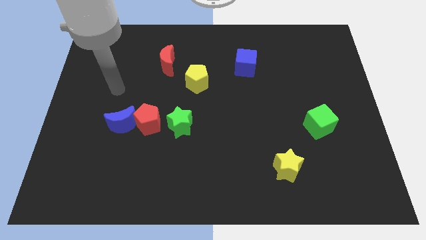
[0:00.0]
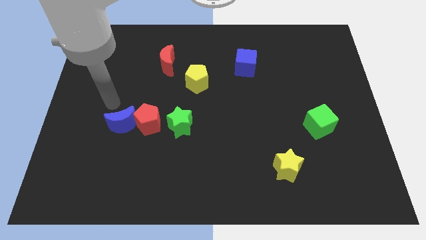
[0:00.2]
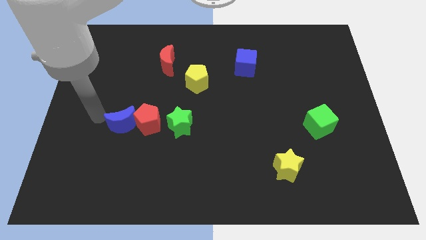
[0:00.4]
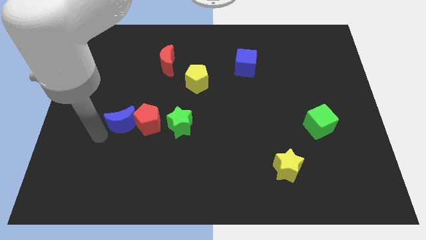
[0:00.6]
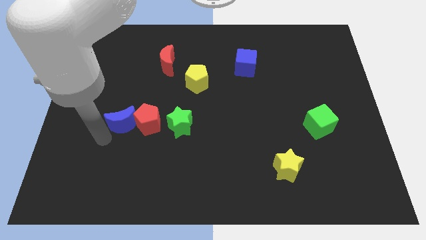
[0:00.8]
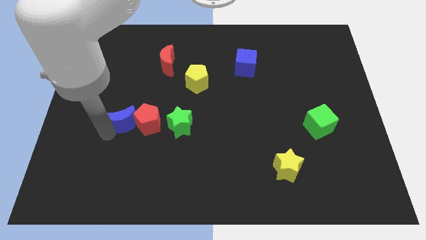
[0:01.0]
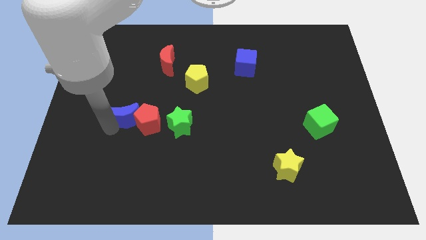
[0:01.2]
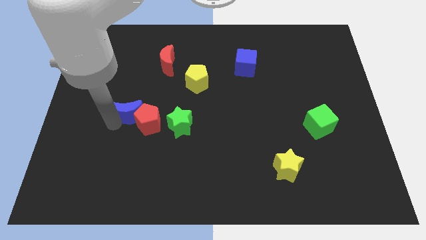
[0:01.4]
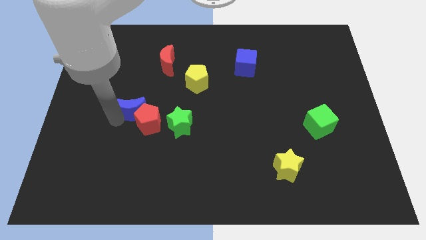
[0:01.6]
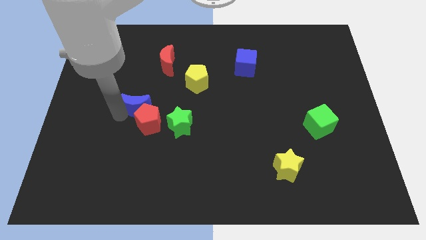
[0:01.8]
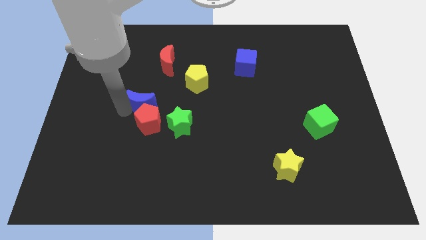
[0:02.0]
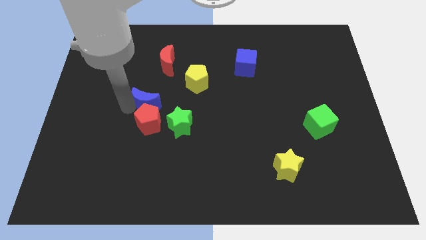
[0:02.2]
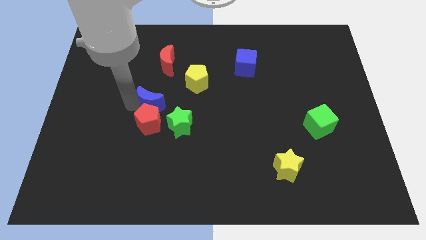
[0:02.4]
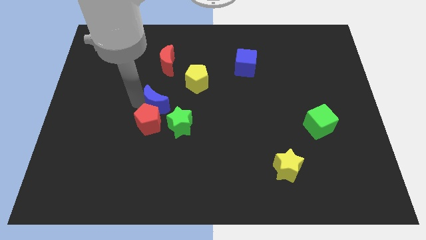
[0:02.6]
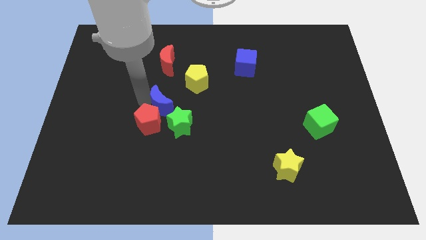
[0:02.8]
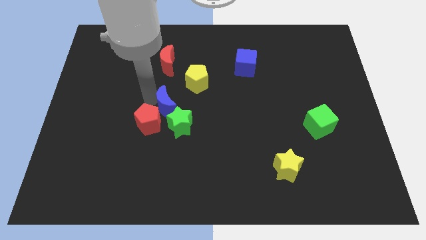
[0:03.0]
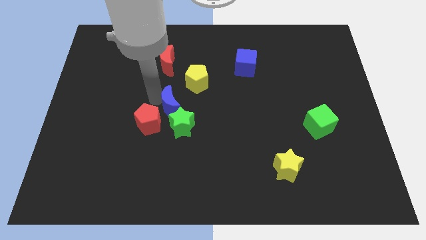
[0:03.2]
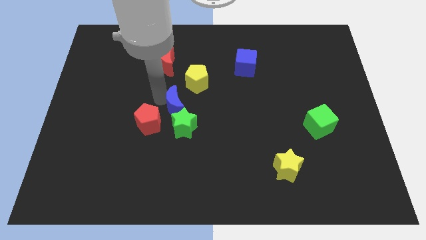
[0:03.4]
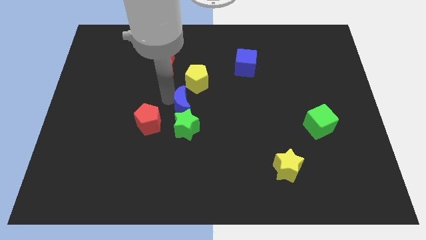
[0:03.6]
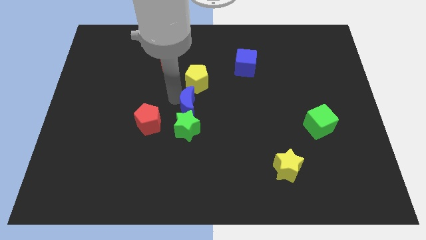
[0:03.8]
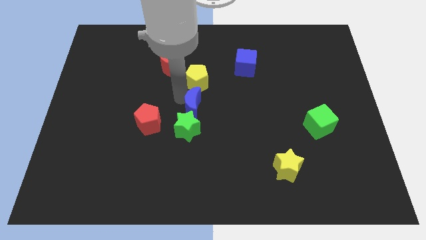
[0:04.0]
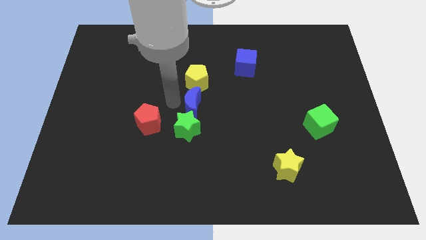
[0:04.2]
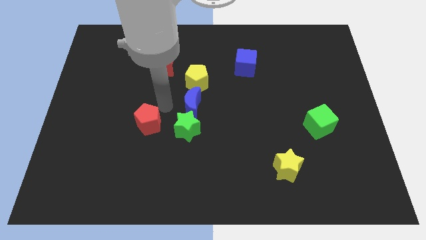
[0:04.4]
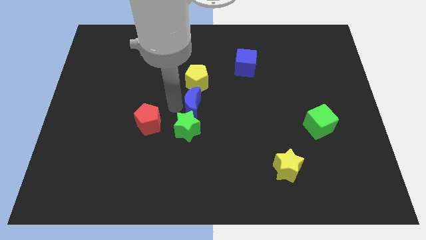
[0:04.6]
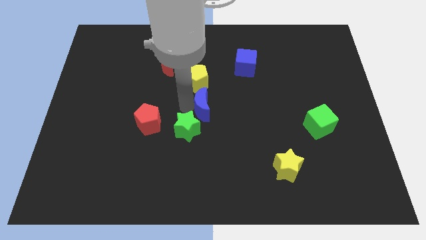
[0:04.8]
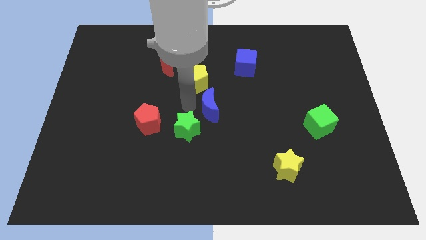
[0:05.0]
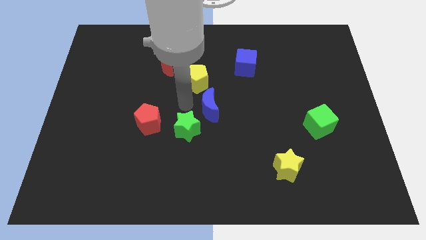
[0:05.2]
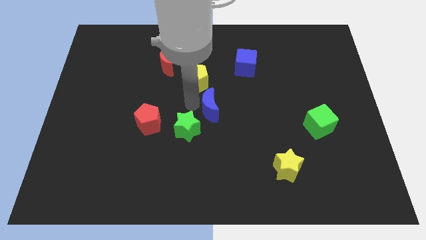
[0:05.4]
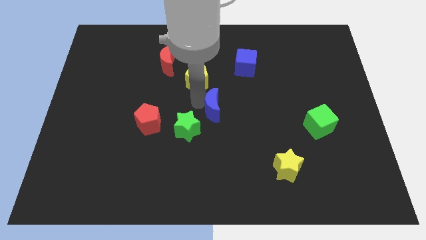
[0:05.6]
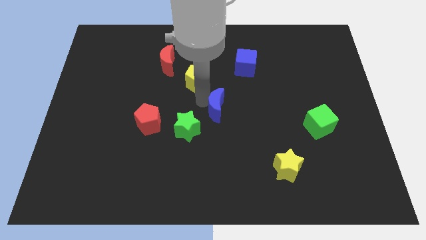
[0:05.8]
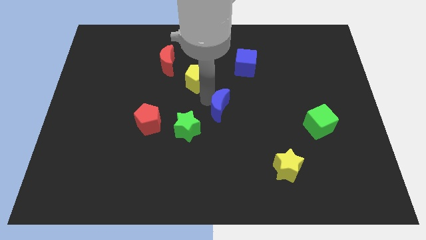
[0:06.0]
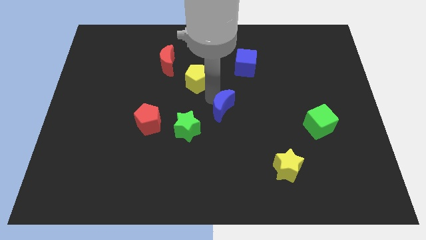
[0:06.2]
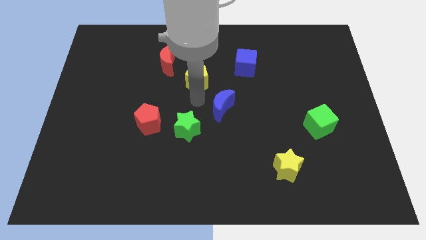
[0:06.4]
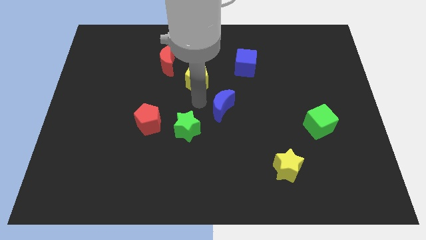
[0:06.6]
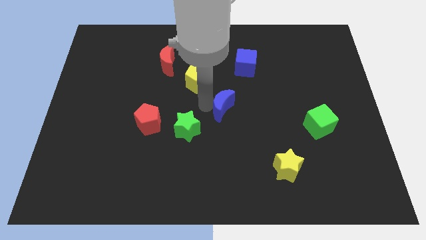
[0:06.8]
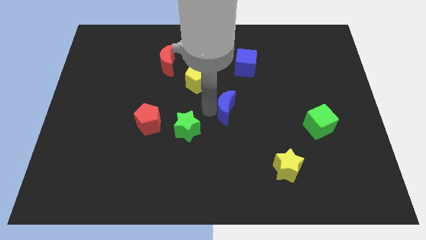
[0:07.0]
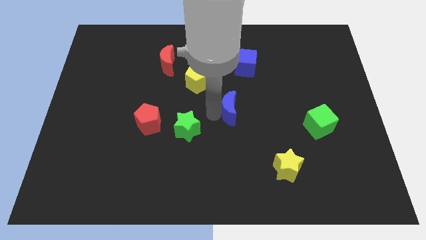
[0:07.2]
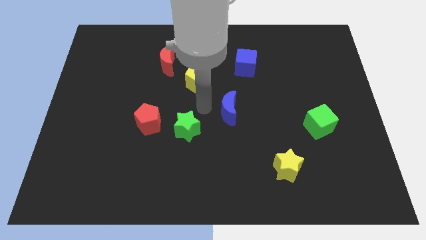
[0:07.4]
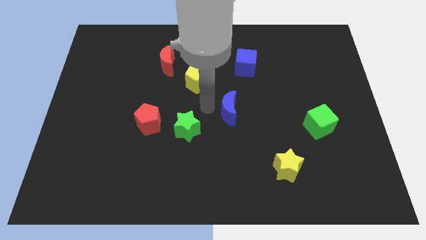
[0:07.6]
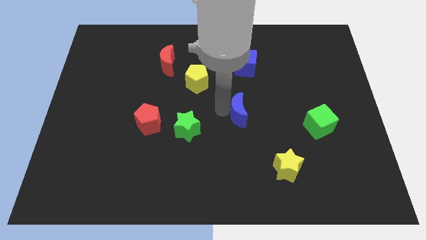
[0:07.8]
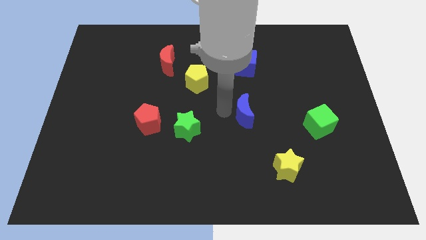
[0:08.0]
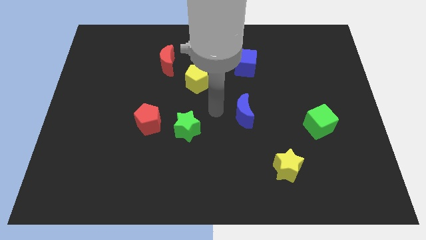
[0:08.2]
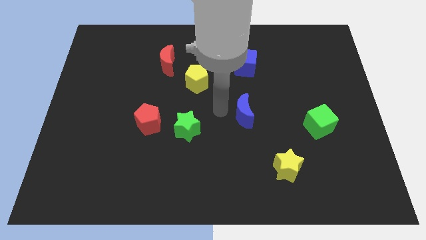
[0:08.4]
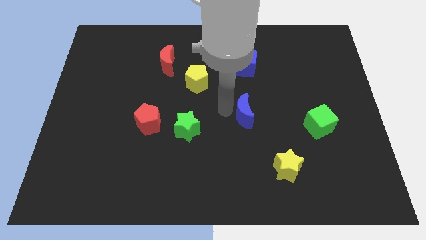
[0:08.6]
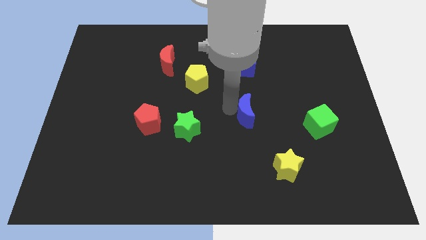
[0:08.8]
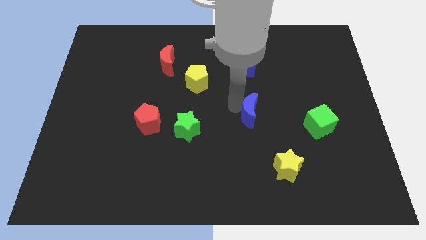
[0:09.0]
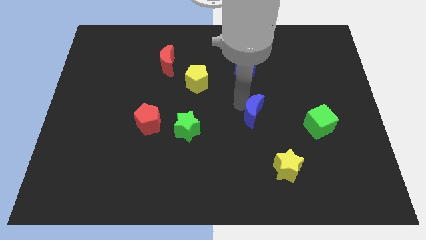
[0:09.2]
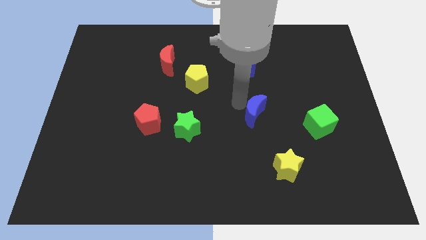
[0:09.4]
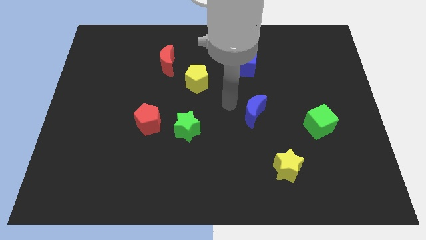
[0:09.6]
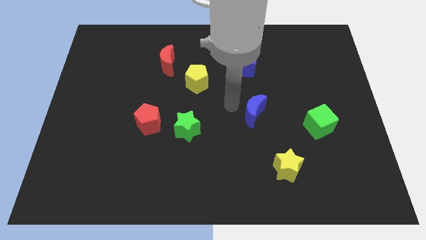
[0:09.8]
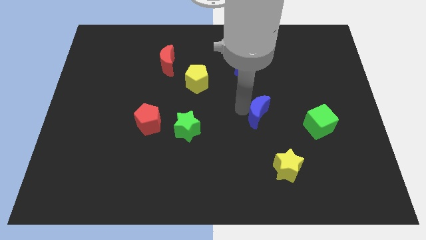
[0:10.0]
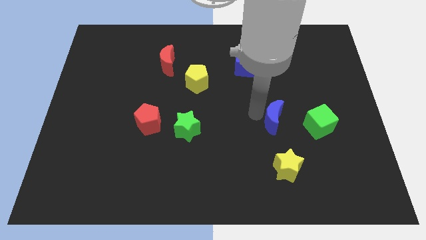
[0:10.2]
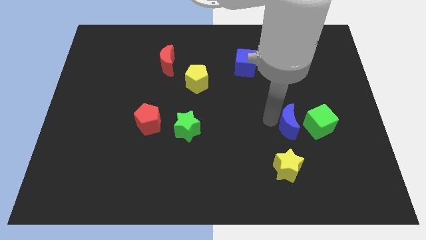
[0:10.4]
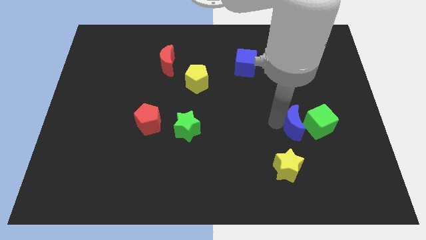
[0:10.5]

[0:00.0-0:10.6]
push the blue moon towards the green cube

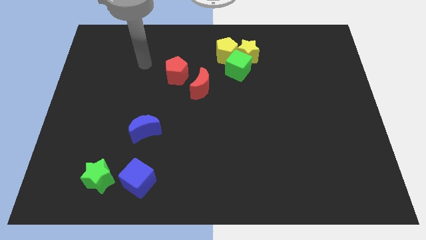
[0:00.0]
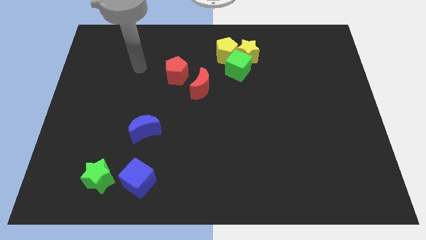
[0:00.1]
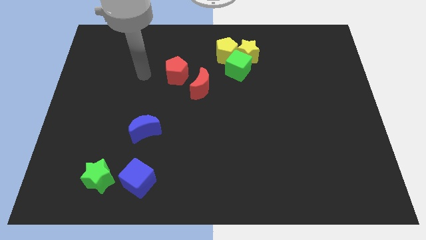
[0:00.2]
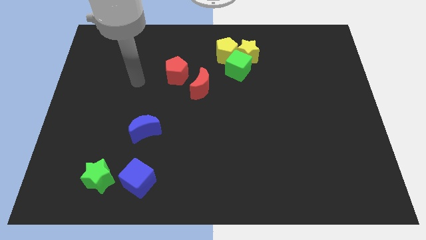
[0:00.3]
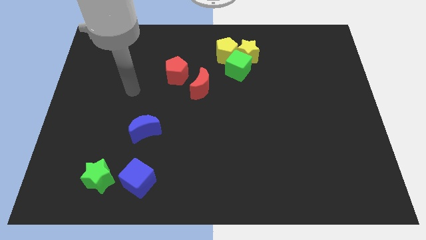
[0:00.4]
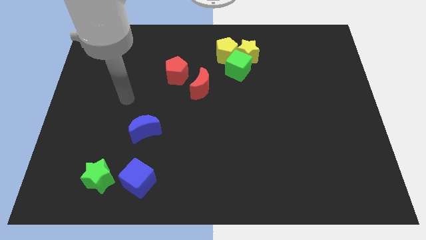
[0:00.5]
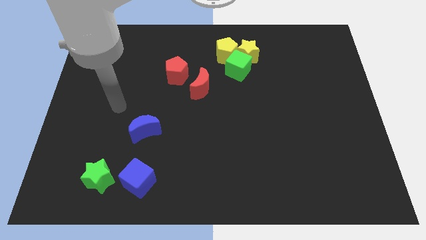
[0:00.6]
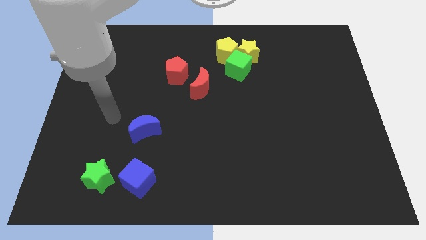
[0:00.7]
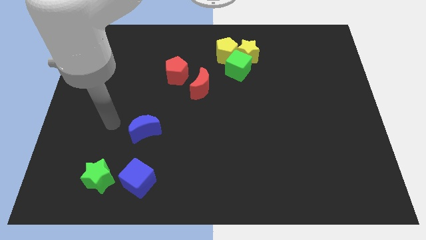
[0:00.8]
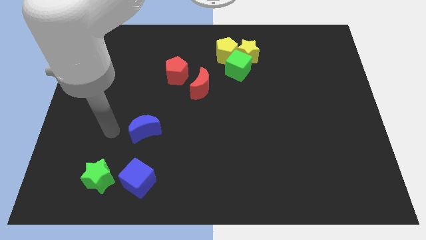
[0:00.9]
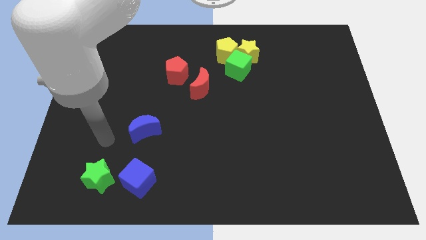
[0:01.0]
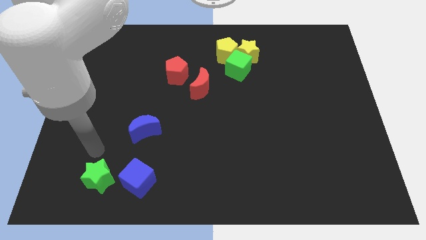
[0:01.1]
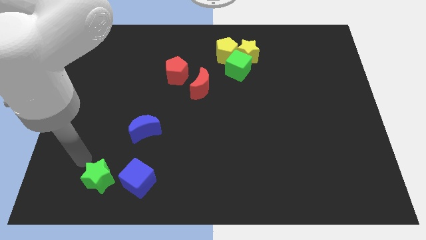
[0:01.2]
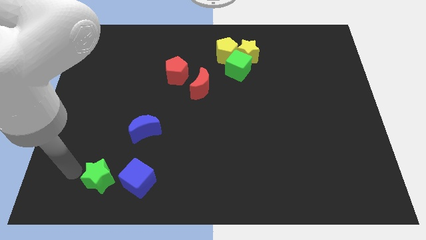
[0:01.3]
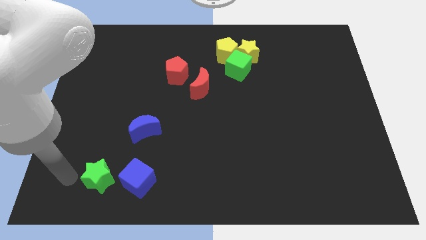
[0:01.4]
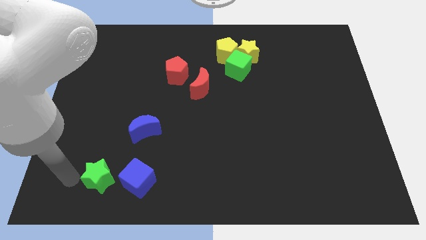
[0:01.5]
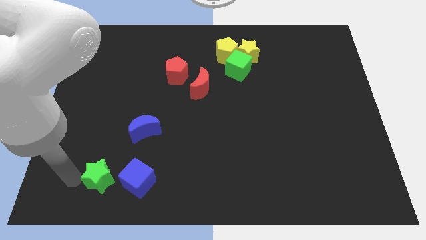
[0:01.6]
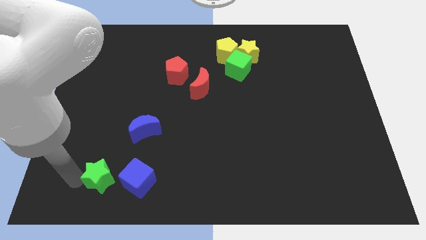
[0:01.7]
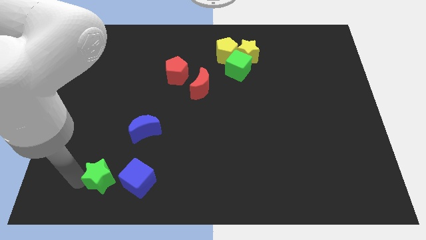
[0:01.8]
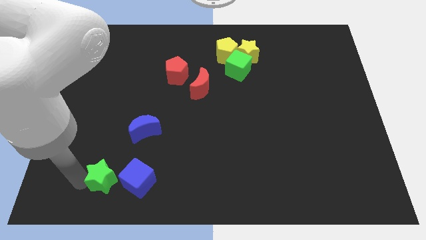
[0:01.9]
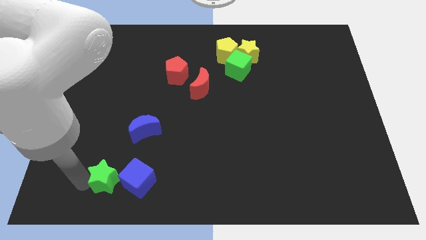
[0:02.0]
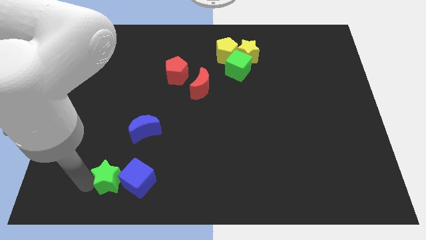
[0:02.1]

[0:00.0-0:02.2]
push the green star to the blue cube

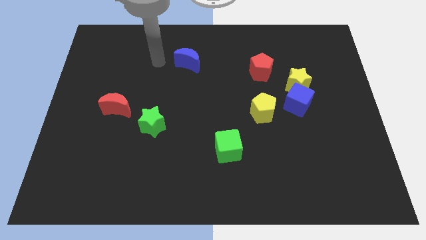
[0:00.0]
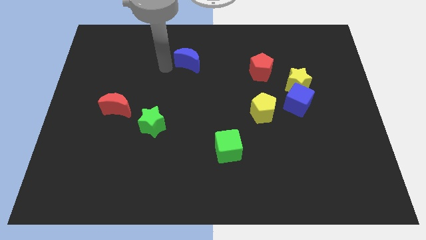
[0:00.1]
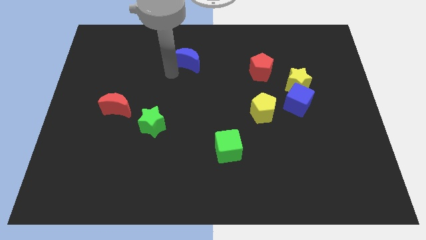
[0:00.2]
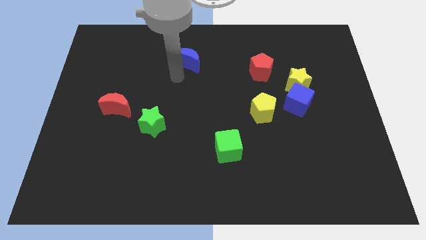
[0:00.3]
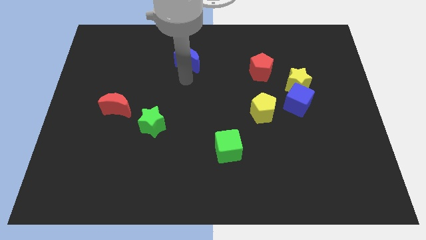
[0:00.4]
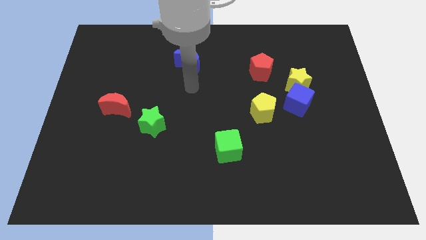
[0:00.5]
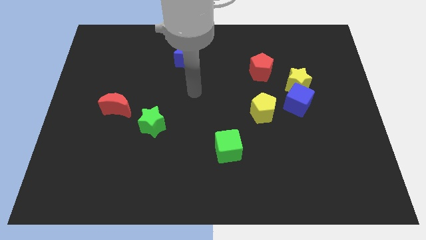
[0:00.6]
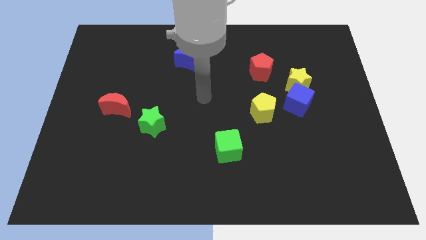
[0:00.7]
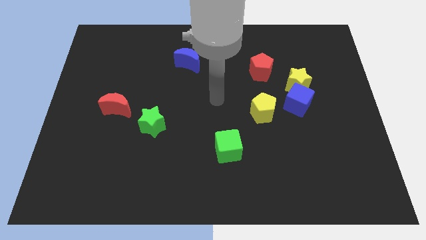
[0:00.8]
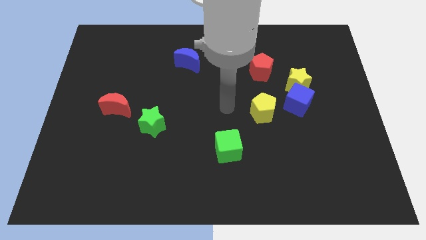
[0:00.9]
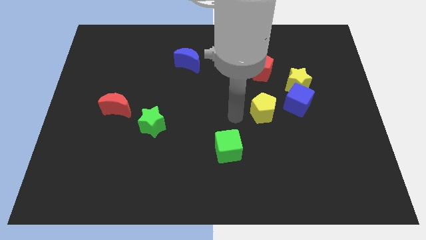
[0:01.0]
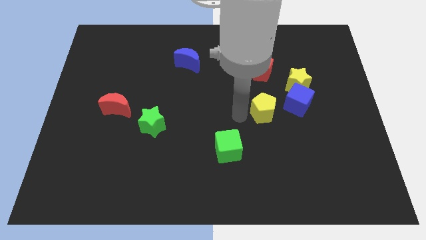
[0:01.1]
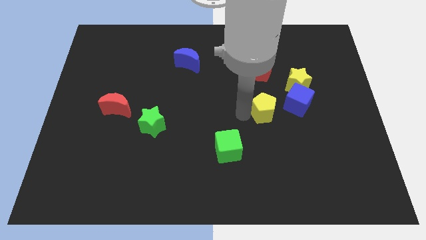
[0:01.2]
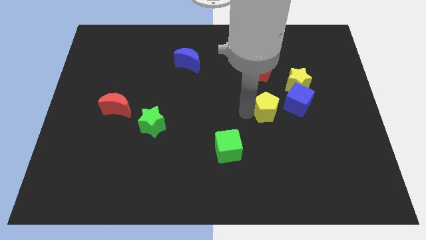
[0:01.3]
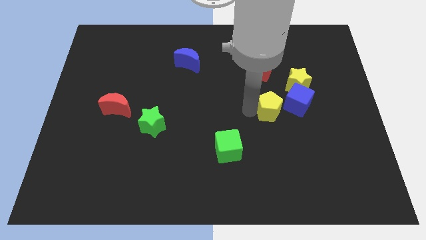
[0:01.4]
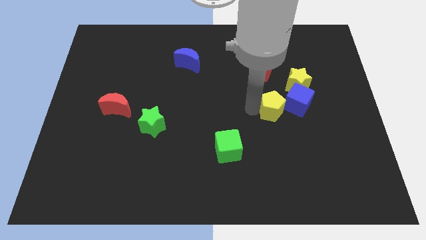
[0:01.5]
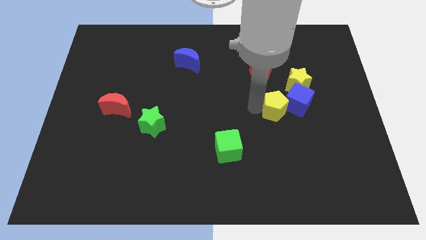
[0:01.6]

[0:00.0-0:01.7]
move the yellow pentagon close to the blue cube
